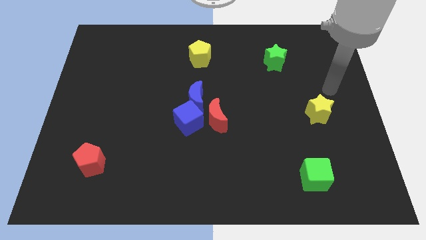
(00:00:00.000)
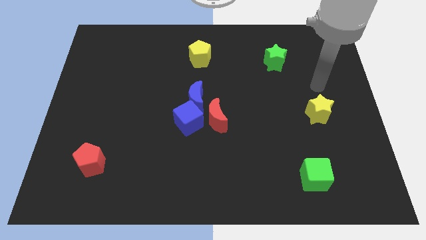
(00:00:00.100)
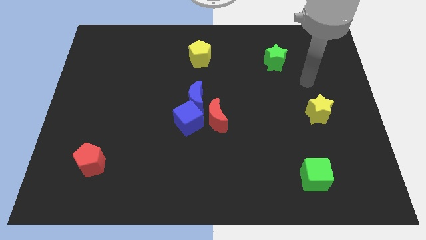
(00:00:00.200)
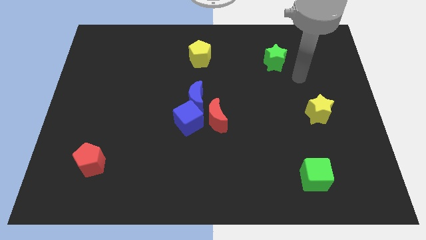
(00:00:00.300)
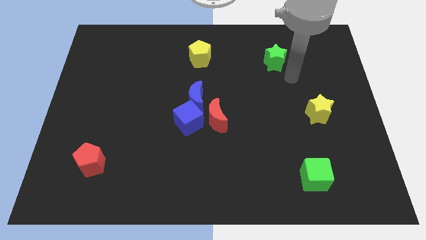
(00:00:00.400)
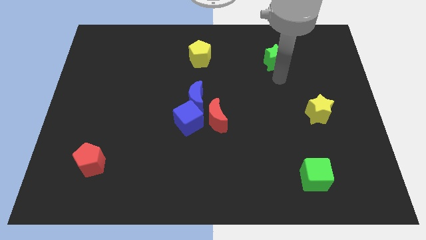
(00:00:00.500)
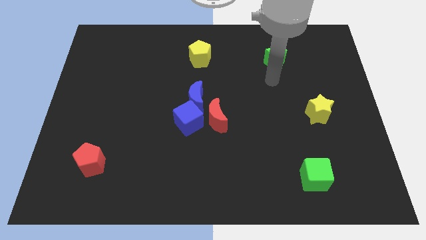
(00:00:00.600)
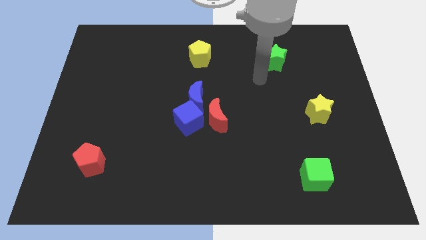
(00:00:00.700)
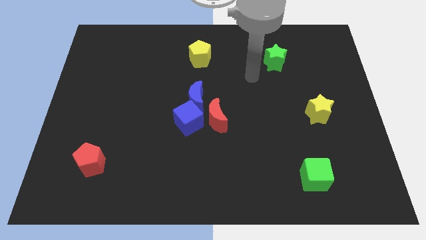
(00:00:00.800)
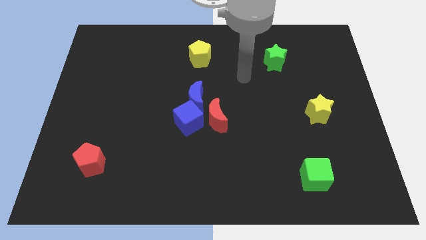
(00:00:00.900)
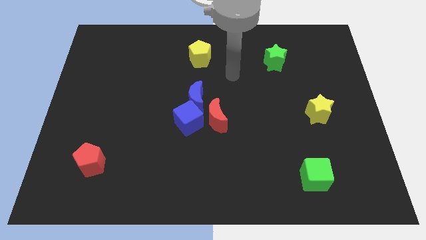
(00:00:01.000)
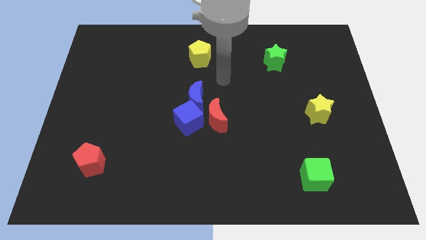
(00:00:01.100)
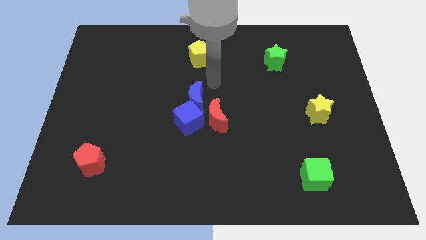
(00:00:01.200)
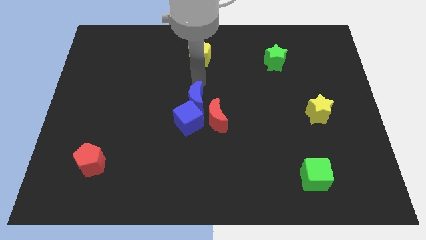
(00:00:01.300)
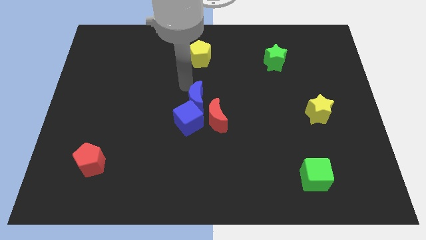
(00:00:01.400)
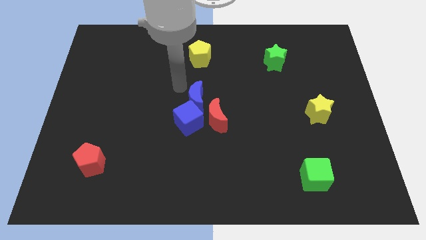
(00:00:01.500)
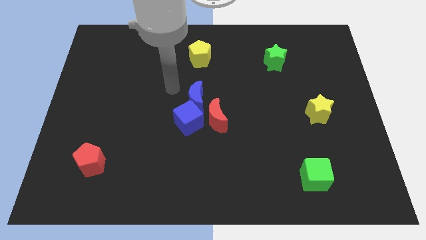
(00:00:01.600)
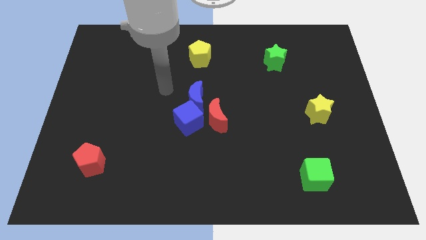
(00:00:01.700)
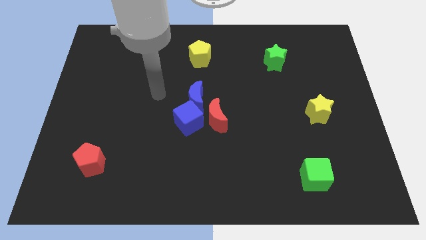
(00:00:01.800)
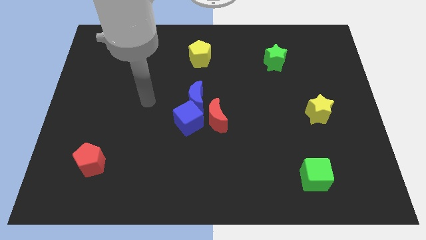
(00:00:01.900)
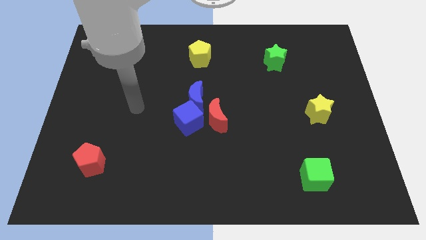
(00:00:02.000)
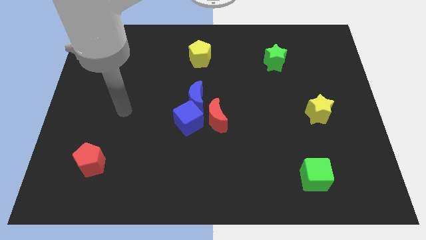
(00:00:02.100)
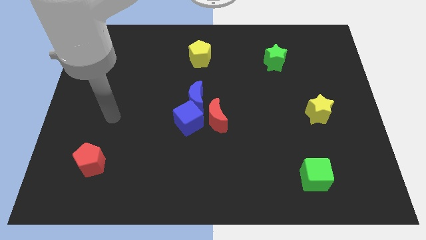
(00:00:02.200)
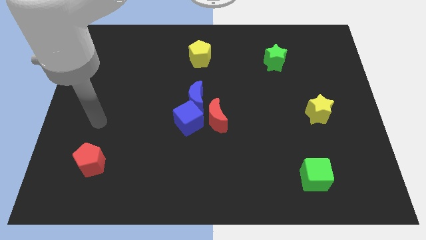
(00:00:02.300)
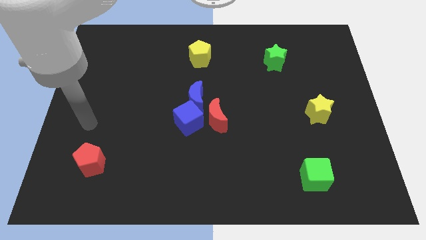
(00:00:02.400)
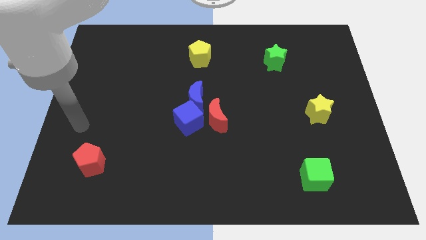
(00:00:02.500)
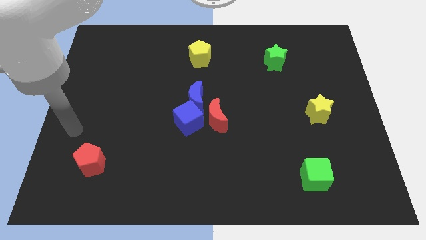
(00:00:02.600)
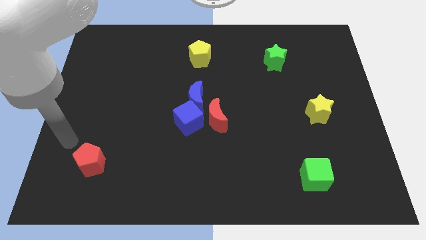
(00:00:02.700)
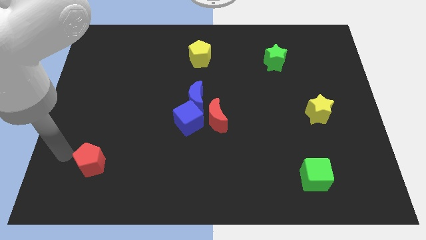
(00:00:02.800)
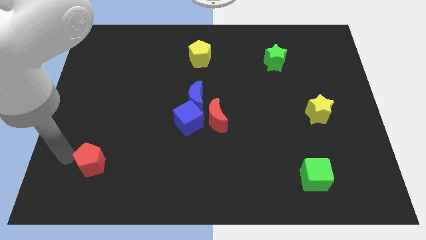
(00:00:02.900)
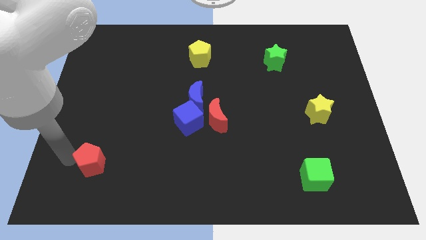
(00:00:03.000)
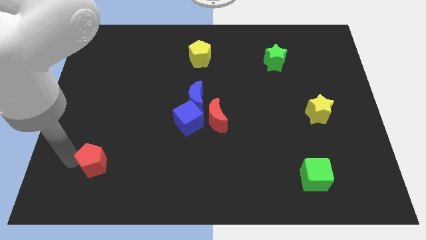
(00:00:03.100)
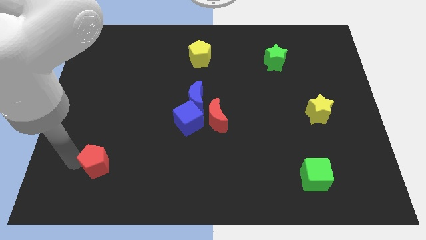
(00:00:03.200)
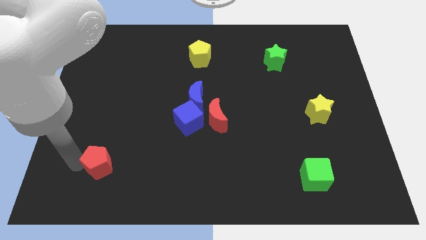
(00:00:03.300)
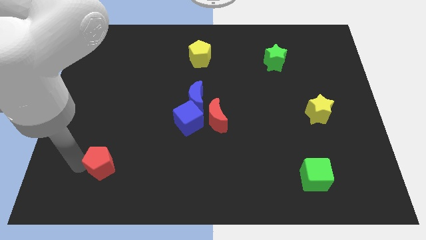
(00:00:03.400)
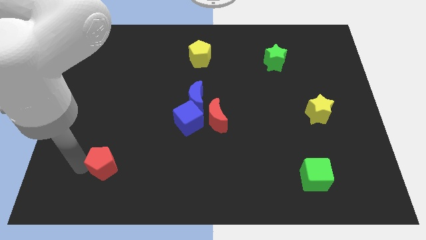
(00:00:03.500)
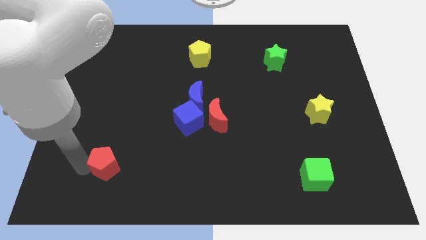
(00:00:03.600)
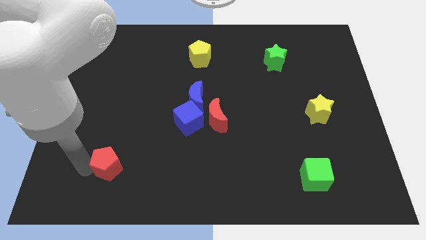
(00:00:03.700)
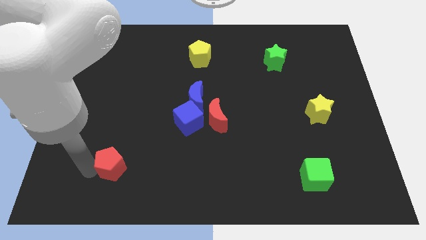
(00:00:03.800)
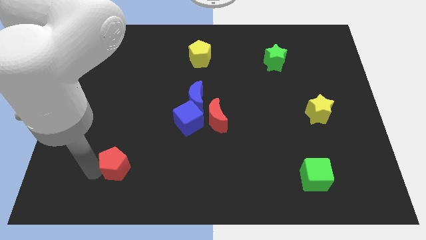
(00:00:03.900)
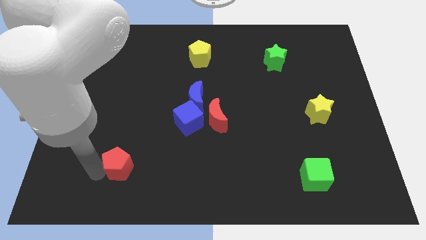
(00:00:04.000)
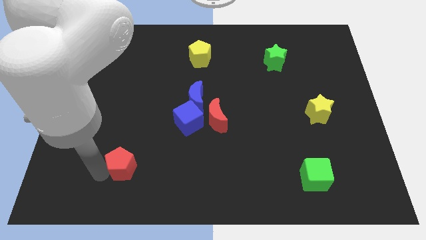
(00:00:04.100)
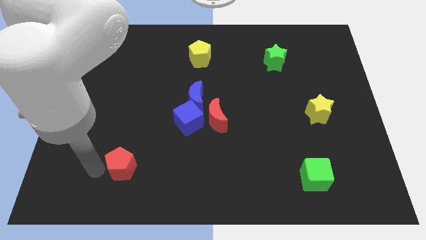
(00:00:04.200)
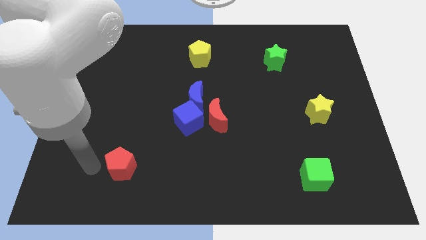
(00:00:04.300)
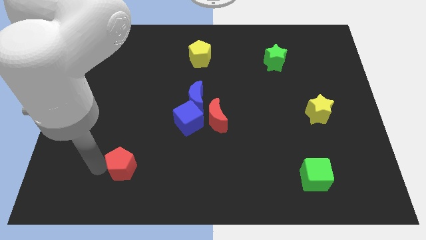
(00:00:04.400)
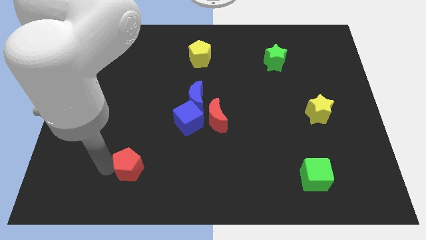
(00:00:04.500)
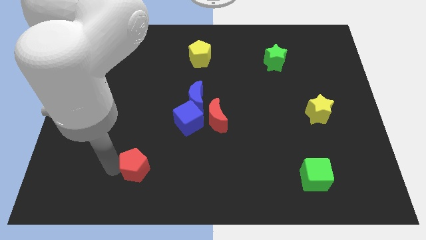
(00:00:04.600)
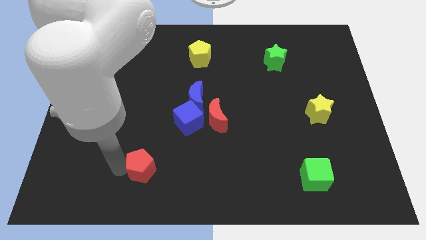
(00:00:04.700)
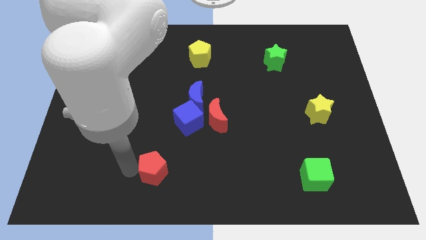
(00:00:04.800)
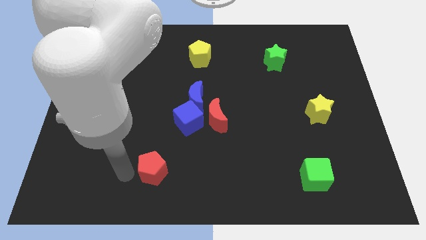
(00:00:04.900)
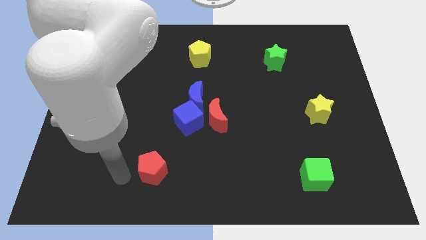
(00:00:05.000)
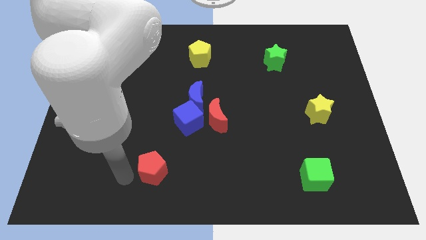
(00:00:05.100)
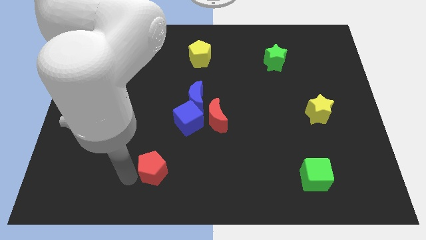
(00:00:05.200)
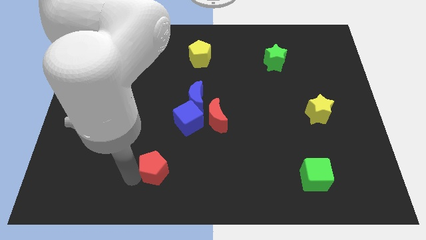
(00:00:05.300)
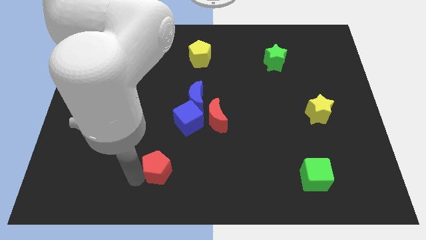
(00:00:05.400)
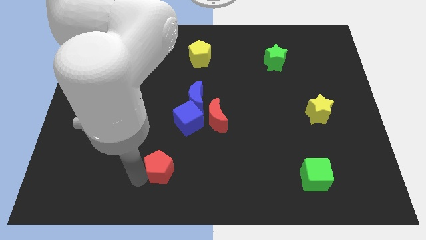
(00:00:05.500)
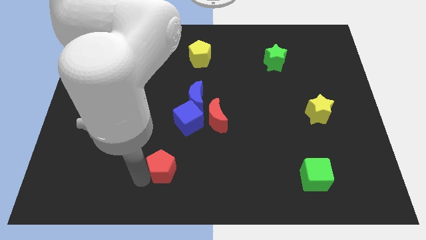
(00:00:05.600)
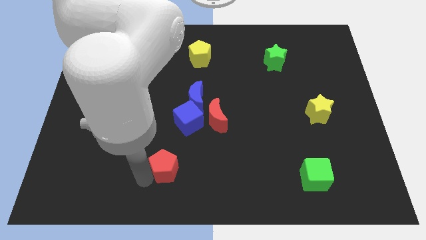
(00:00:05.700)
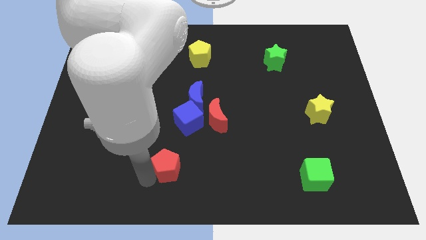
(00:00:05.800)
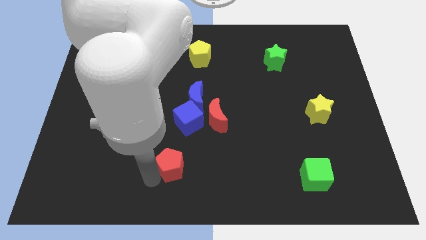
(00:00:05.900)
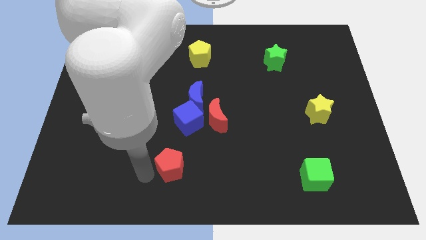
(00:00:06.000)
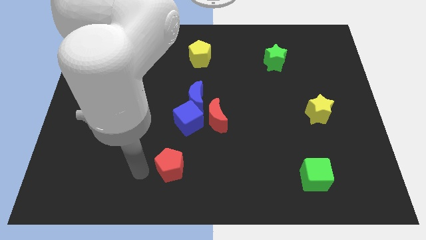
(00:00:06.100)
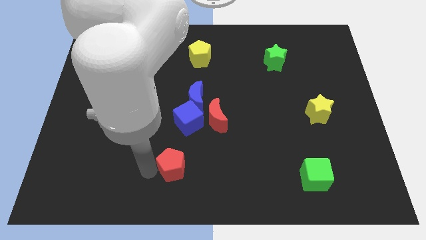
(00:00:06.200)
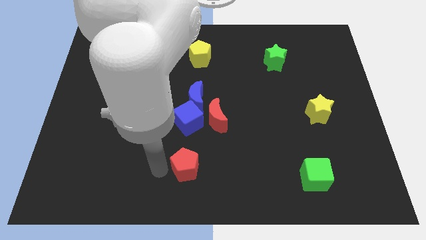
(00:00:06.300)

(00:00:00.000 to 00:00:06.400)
move the red pentagon to the right

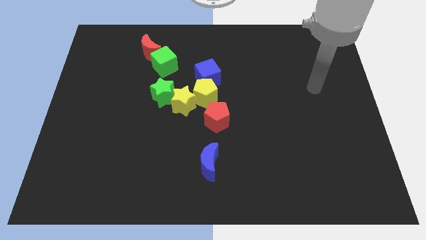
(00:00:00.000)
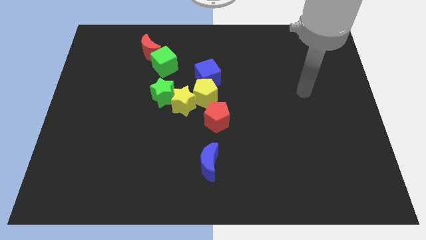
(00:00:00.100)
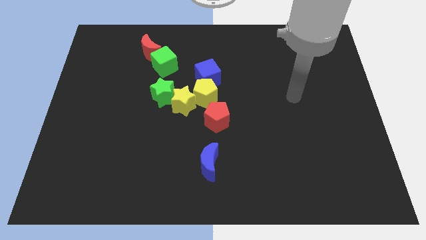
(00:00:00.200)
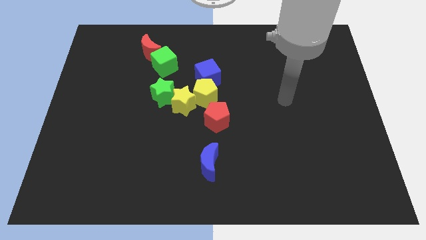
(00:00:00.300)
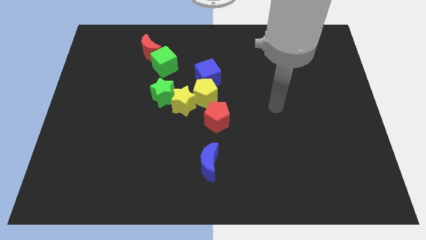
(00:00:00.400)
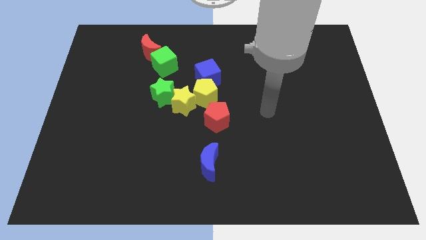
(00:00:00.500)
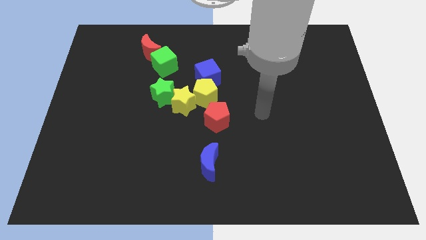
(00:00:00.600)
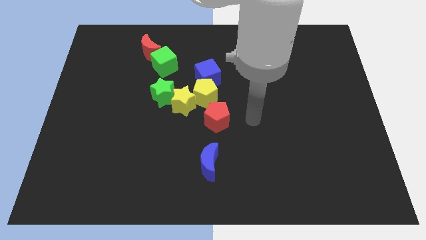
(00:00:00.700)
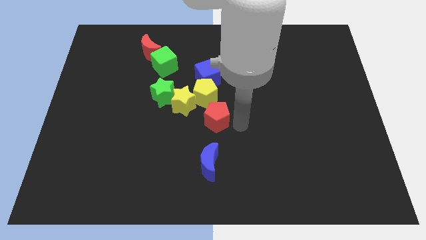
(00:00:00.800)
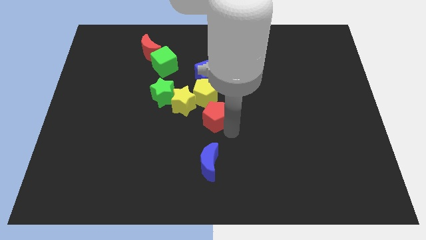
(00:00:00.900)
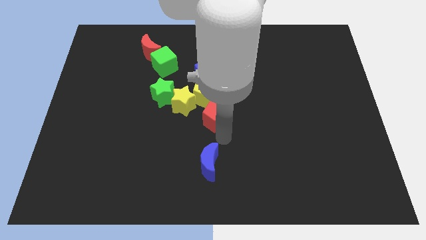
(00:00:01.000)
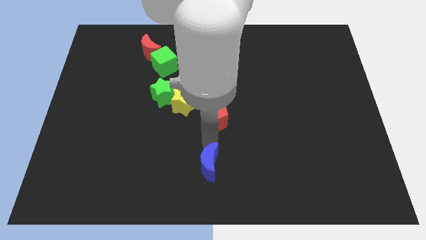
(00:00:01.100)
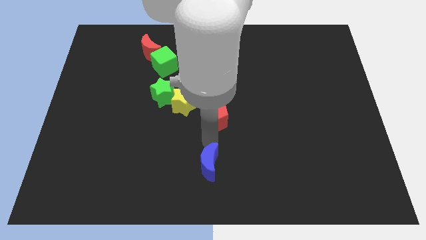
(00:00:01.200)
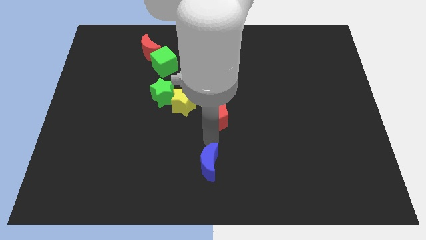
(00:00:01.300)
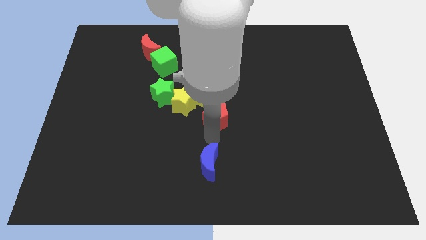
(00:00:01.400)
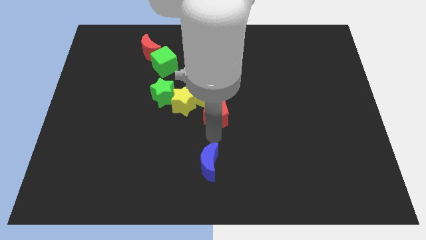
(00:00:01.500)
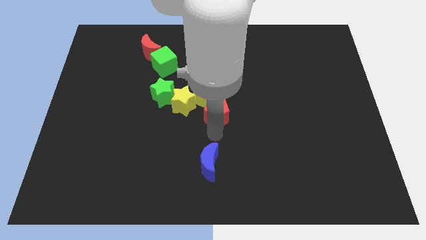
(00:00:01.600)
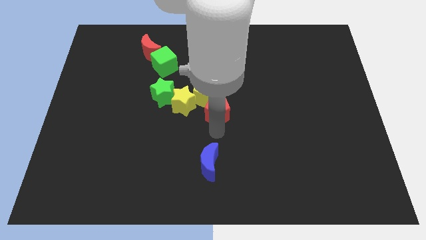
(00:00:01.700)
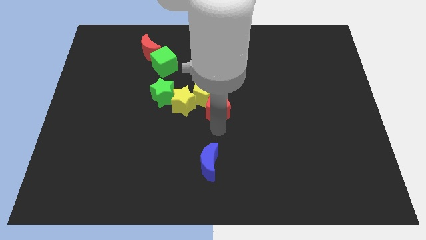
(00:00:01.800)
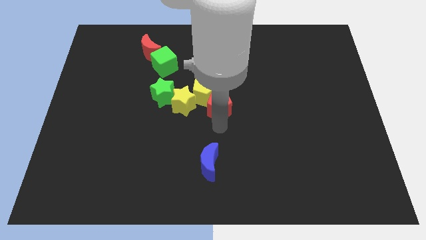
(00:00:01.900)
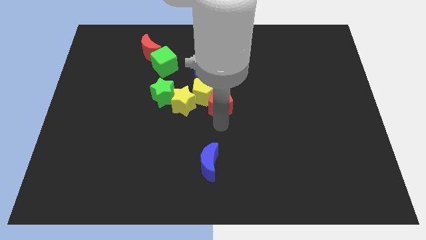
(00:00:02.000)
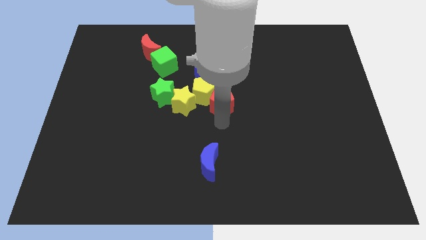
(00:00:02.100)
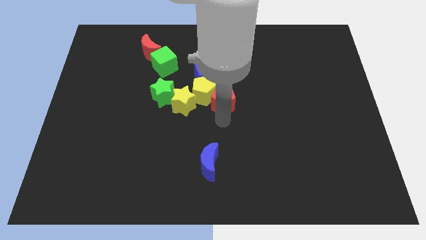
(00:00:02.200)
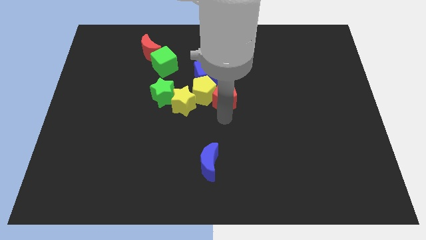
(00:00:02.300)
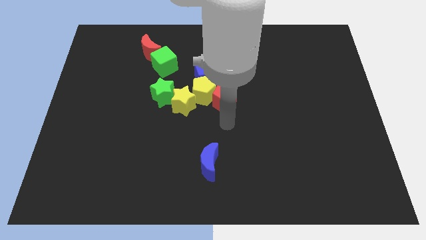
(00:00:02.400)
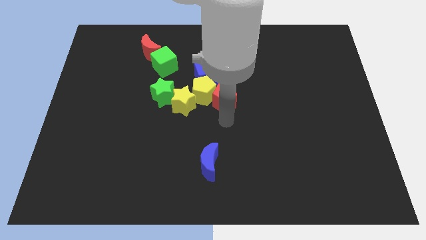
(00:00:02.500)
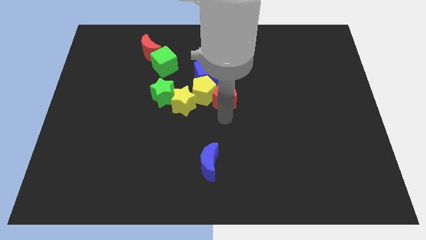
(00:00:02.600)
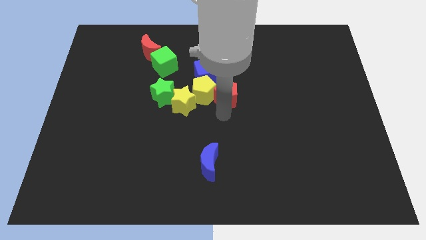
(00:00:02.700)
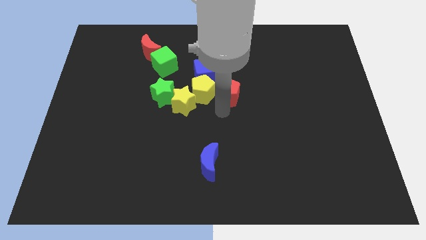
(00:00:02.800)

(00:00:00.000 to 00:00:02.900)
slightly slide the red pentagon up
